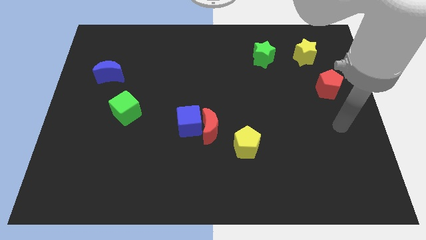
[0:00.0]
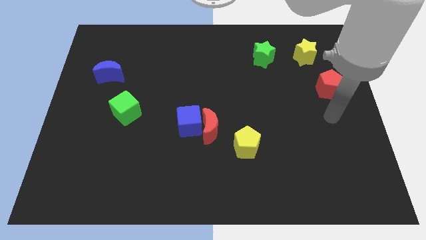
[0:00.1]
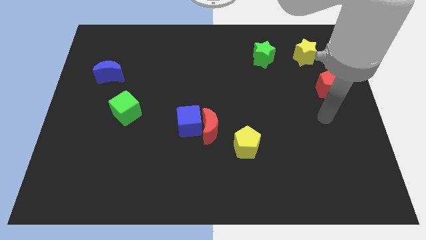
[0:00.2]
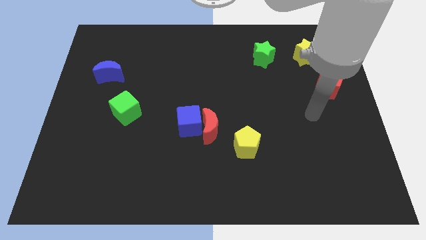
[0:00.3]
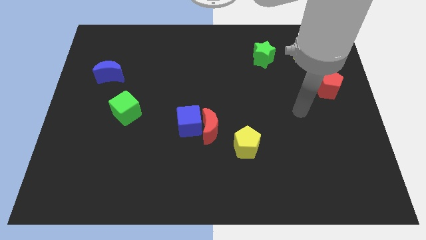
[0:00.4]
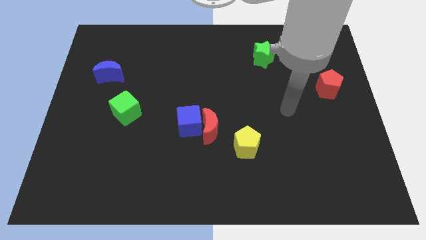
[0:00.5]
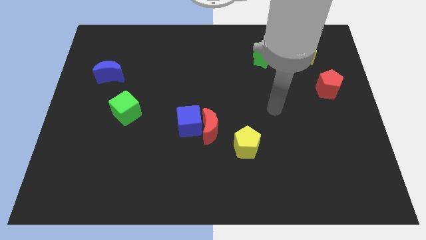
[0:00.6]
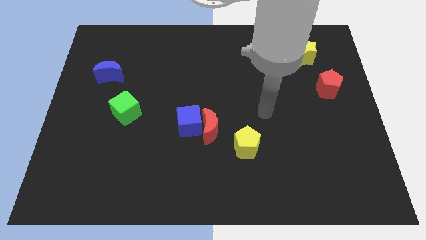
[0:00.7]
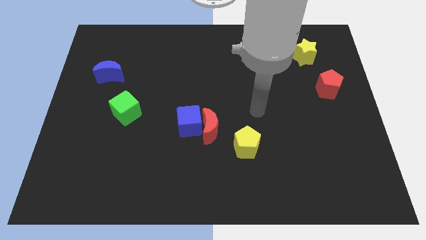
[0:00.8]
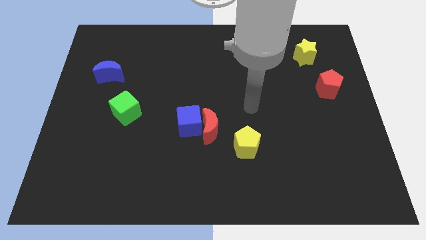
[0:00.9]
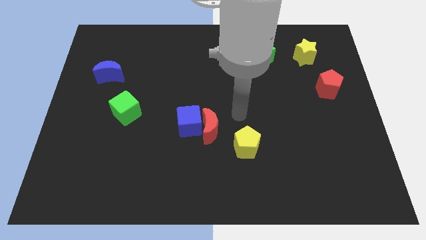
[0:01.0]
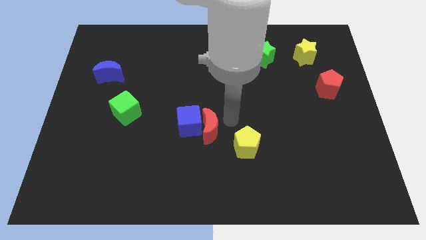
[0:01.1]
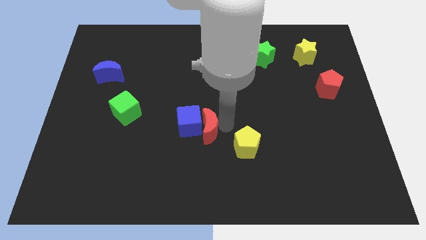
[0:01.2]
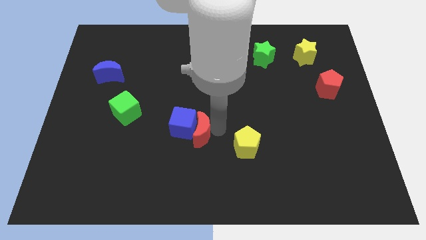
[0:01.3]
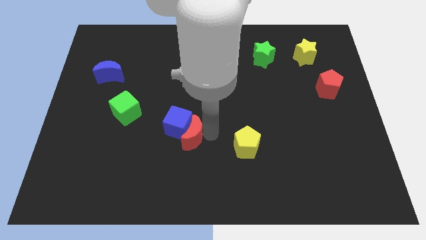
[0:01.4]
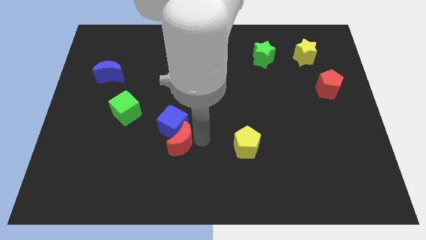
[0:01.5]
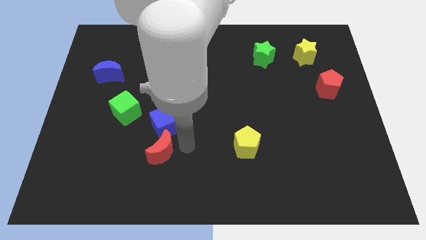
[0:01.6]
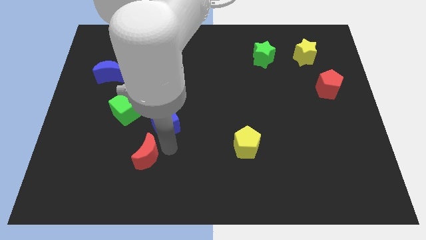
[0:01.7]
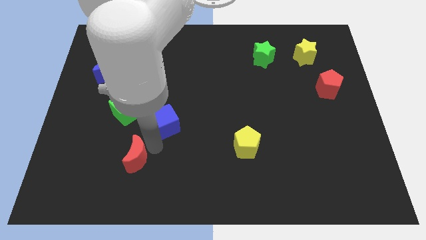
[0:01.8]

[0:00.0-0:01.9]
move the blue cube away from the red moon

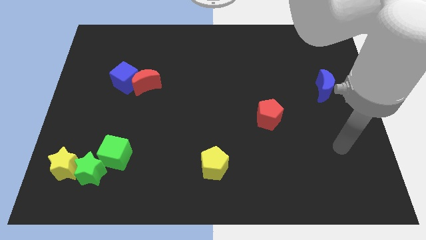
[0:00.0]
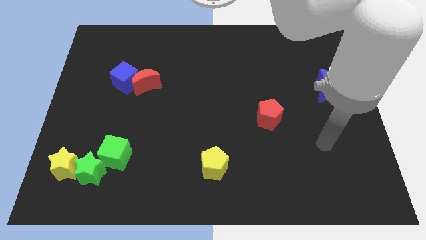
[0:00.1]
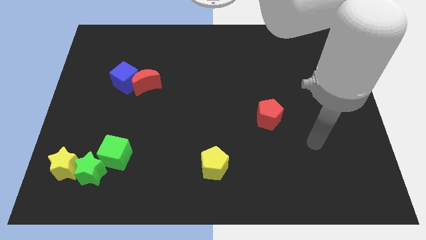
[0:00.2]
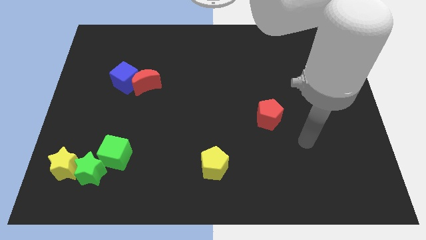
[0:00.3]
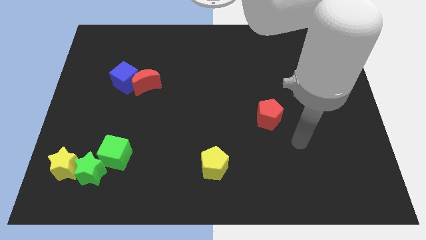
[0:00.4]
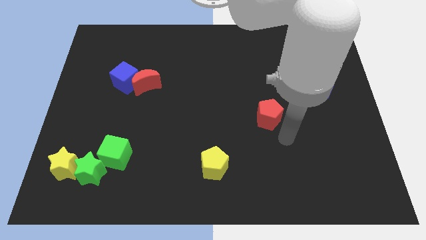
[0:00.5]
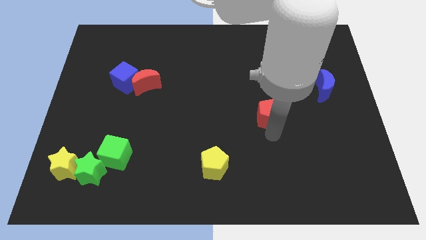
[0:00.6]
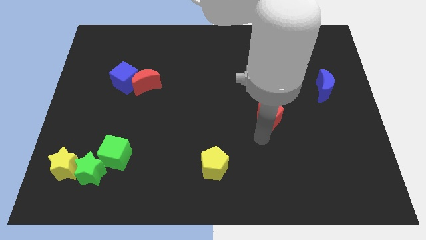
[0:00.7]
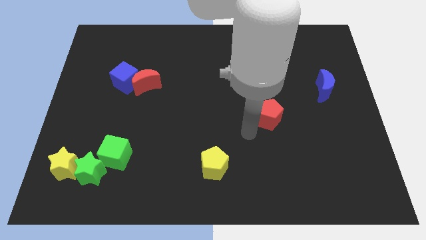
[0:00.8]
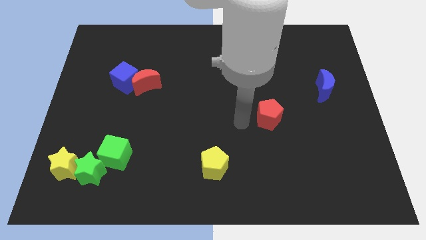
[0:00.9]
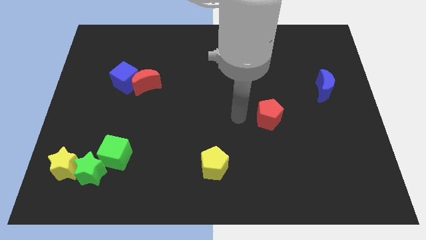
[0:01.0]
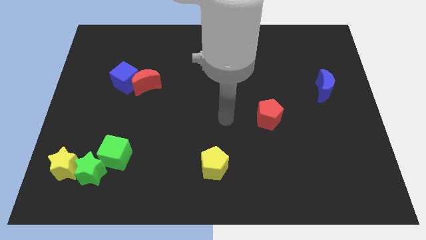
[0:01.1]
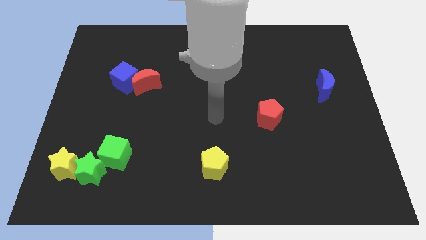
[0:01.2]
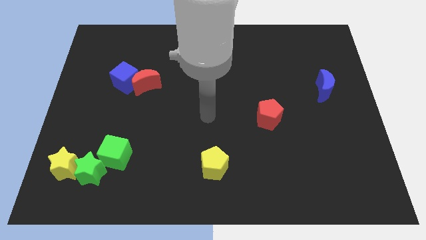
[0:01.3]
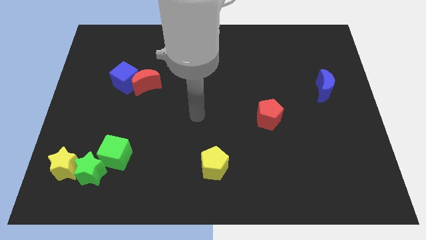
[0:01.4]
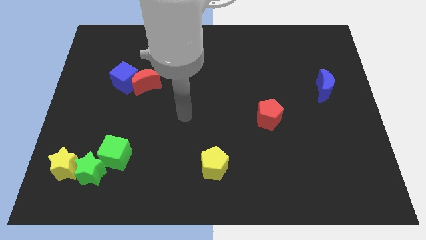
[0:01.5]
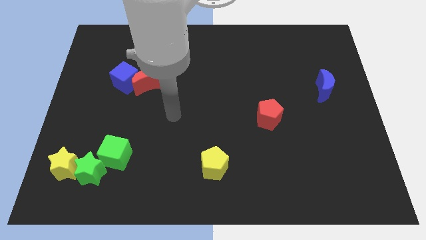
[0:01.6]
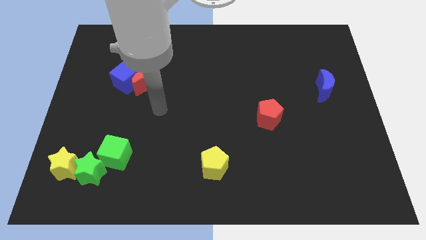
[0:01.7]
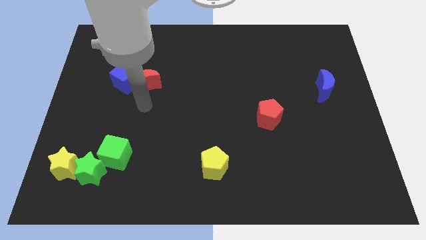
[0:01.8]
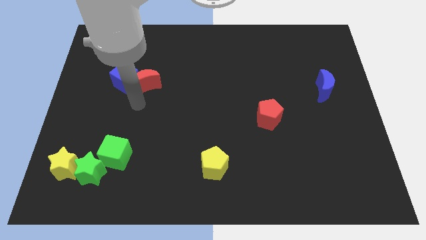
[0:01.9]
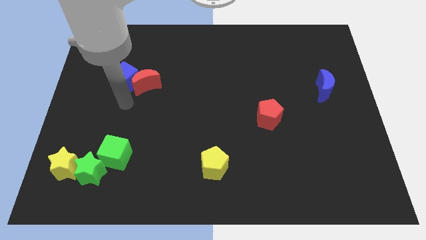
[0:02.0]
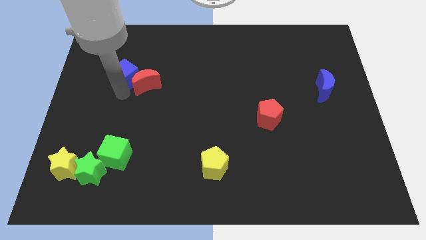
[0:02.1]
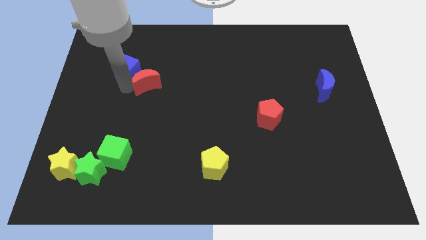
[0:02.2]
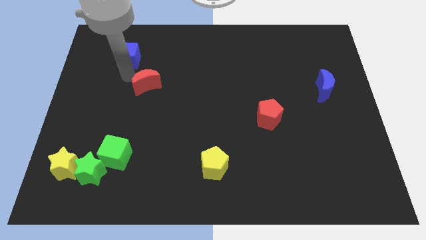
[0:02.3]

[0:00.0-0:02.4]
separate the red moon from the blue cube

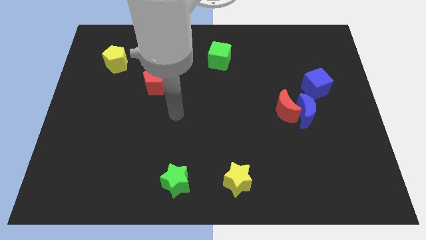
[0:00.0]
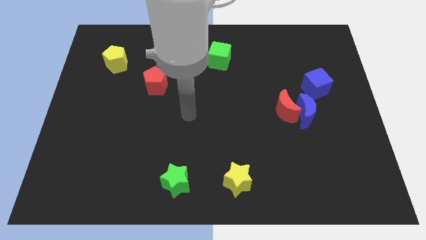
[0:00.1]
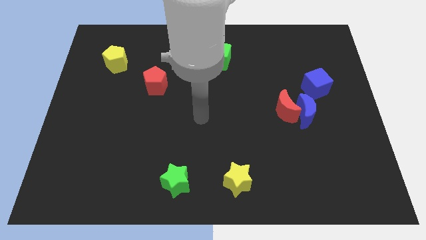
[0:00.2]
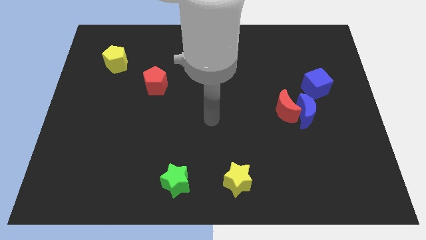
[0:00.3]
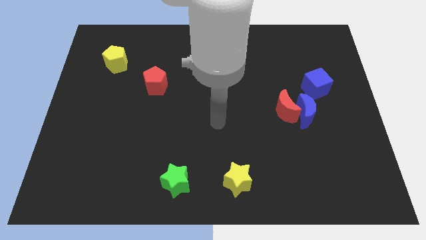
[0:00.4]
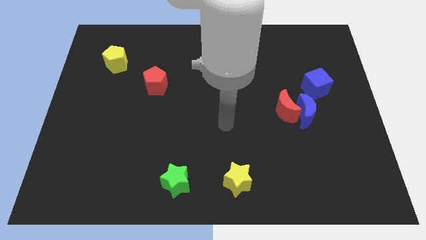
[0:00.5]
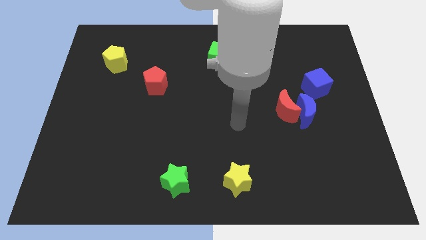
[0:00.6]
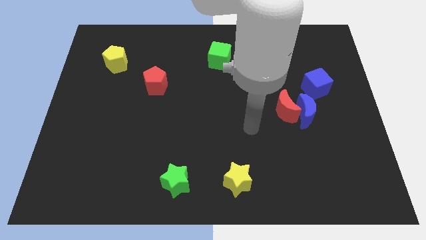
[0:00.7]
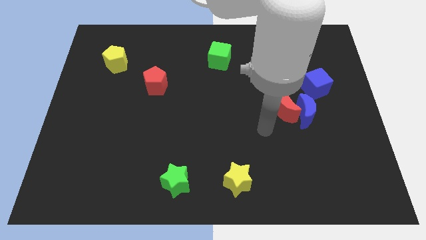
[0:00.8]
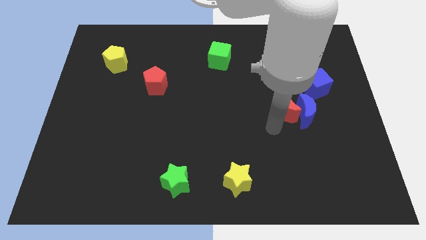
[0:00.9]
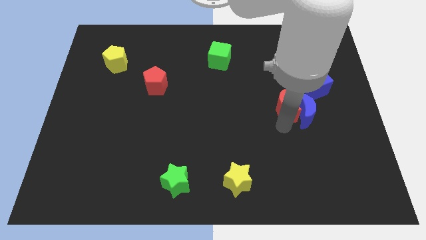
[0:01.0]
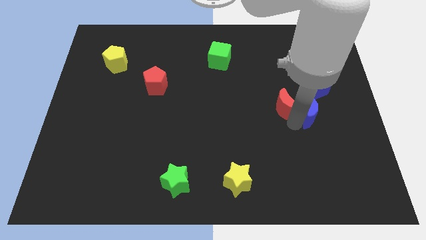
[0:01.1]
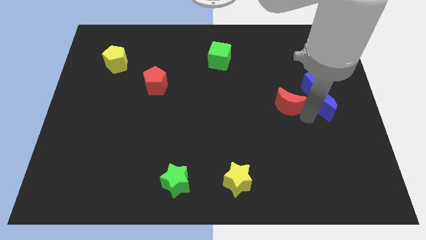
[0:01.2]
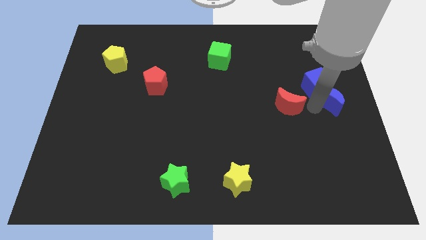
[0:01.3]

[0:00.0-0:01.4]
separate the red moon from the blue moon

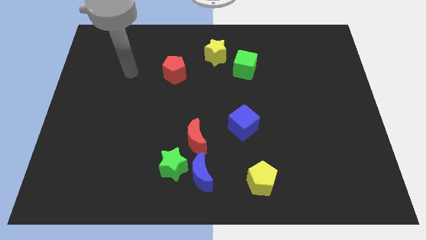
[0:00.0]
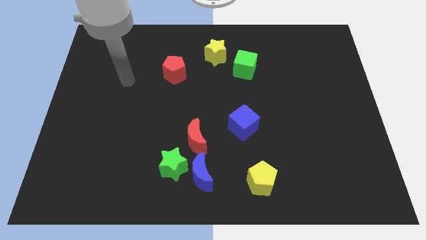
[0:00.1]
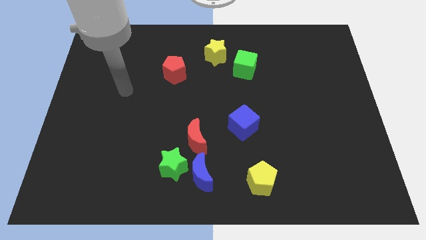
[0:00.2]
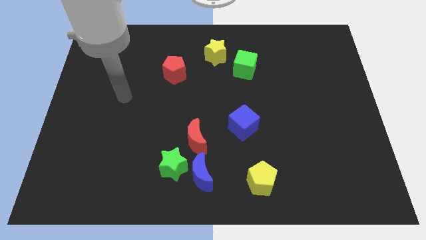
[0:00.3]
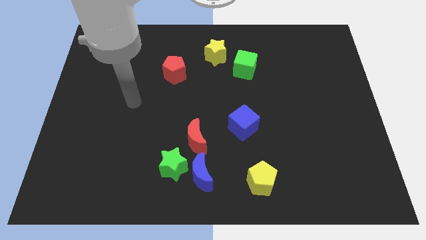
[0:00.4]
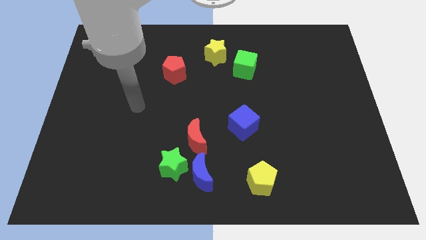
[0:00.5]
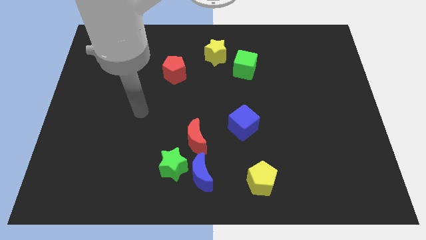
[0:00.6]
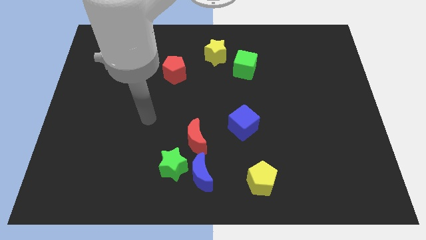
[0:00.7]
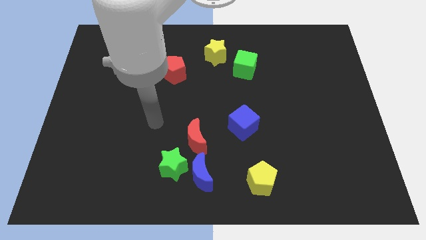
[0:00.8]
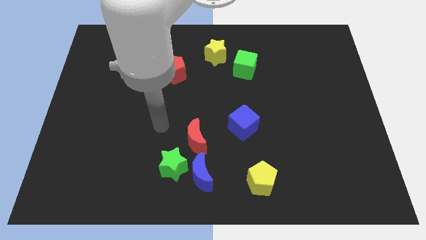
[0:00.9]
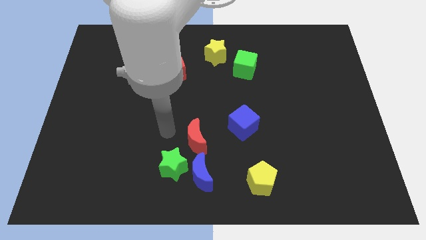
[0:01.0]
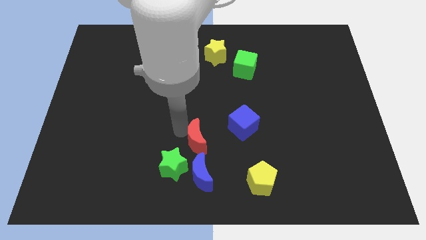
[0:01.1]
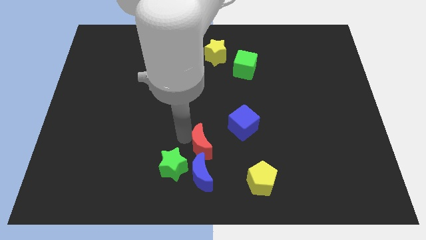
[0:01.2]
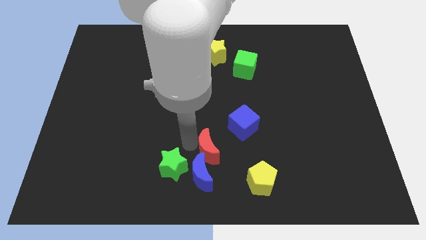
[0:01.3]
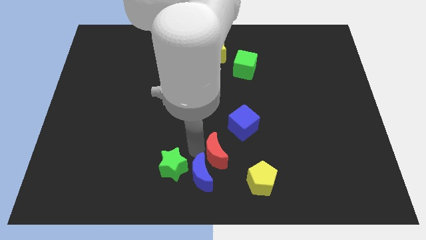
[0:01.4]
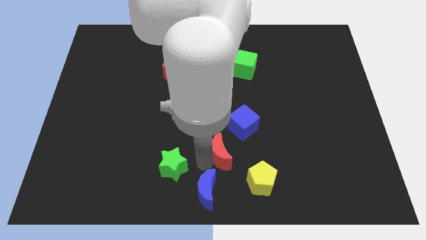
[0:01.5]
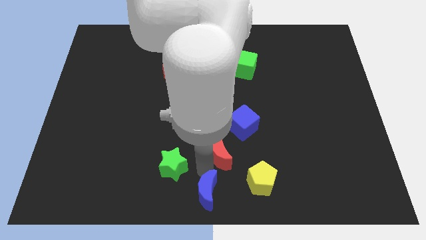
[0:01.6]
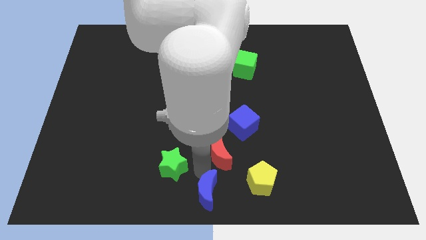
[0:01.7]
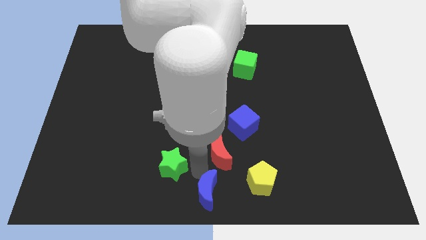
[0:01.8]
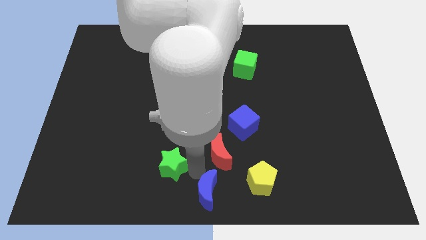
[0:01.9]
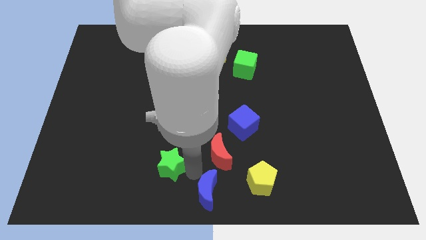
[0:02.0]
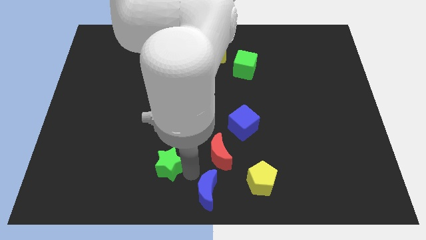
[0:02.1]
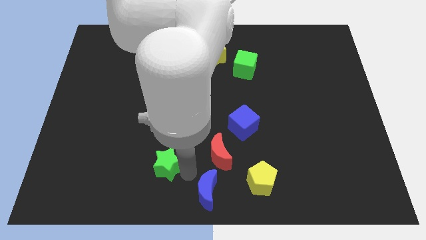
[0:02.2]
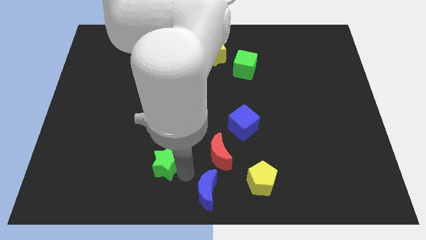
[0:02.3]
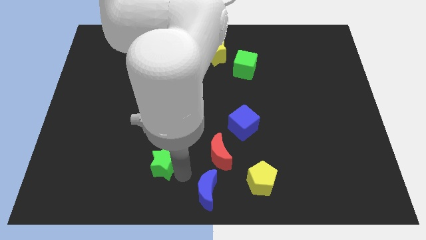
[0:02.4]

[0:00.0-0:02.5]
pull the green star apart from the blue moon and red moon

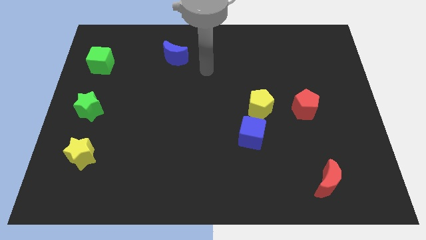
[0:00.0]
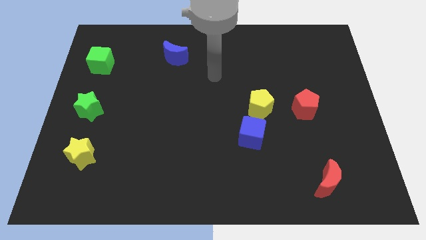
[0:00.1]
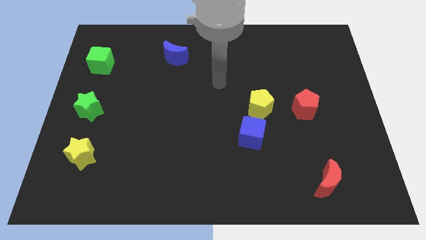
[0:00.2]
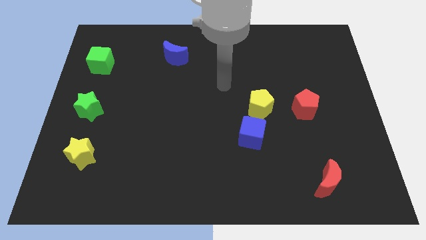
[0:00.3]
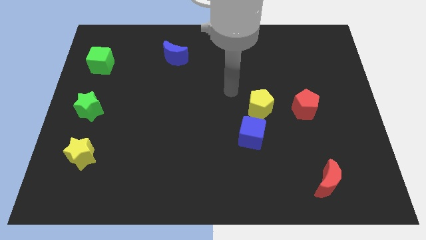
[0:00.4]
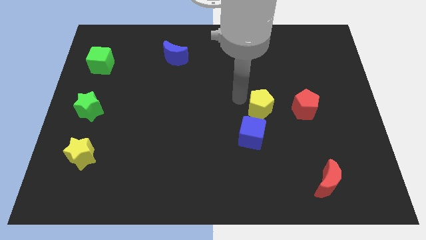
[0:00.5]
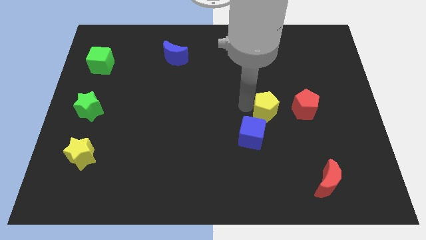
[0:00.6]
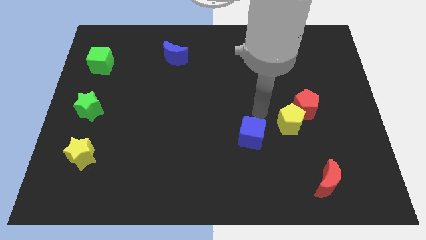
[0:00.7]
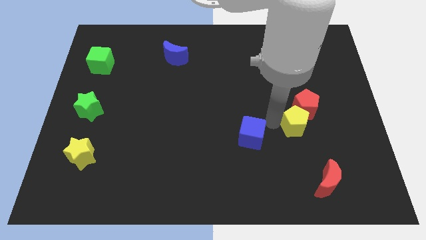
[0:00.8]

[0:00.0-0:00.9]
move the blue cube away from the yellow pentagon

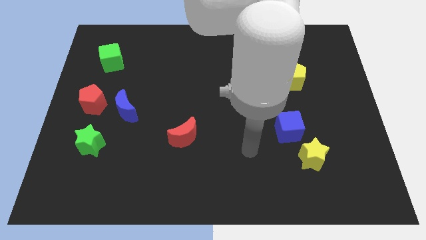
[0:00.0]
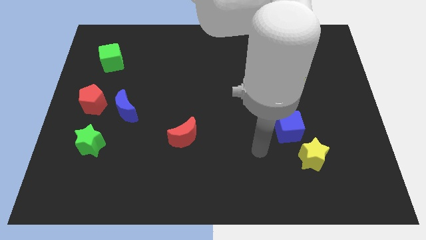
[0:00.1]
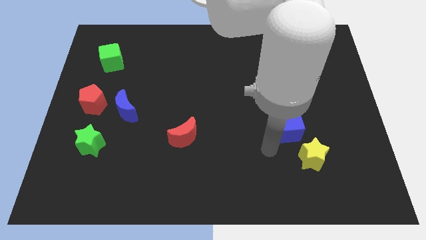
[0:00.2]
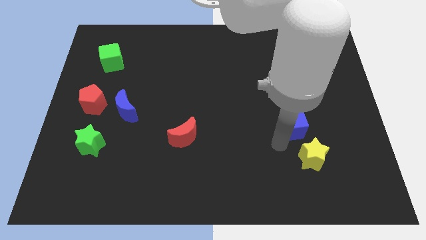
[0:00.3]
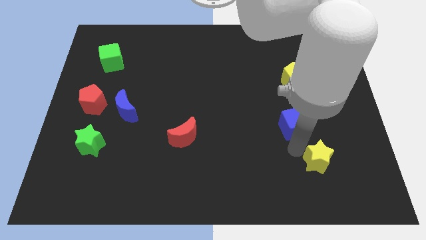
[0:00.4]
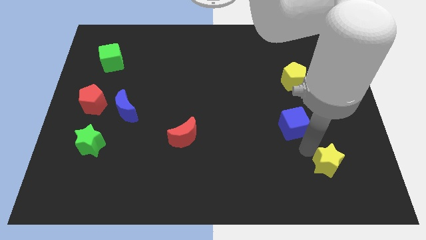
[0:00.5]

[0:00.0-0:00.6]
move the blue cube away from the yellow star
